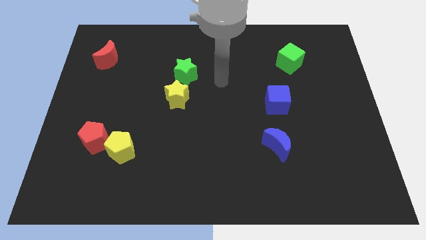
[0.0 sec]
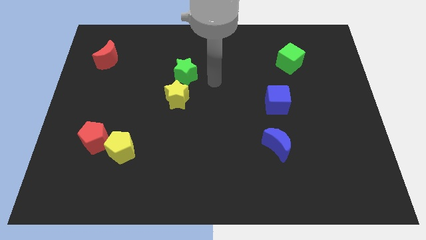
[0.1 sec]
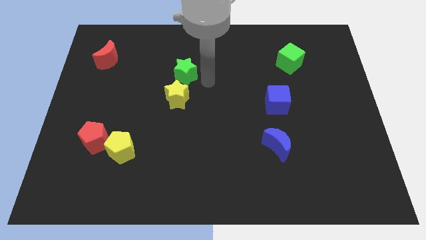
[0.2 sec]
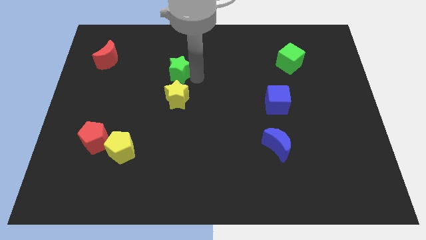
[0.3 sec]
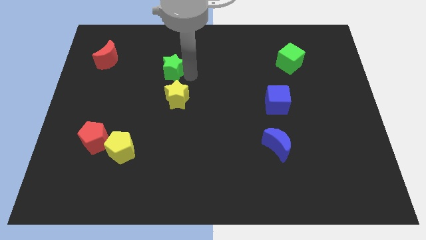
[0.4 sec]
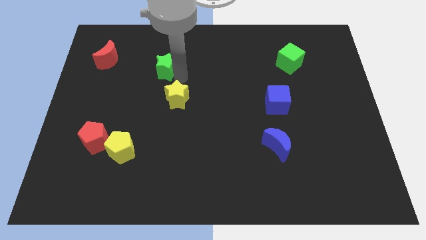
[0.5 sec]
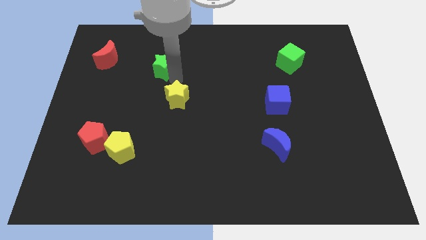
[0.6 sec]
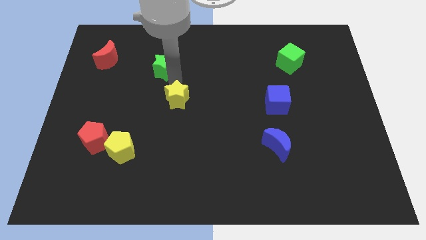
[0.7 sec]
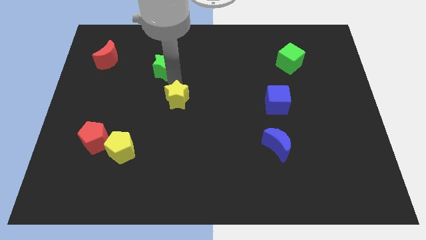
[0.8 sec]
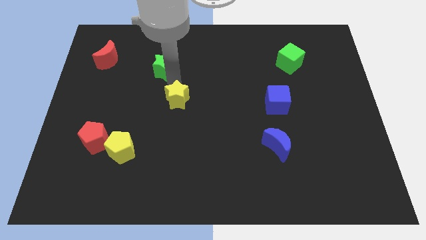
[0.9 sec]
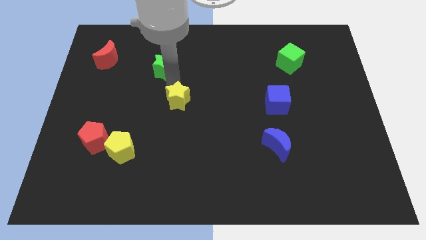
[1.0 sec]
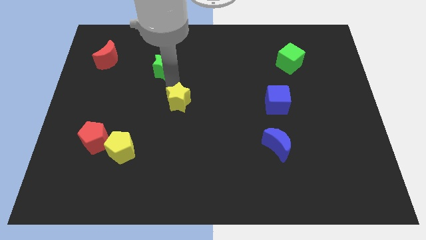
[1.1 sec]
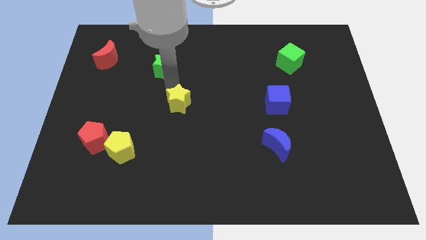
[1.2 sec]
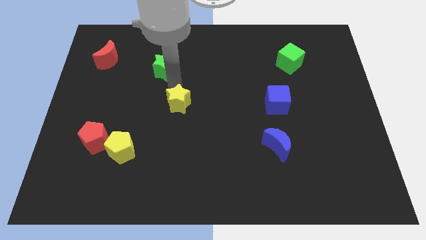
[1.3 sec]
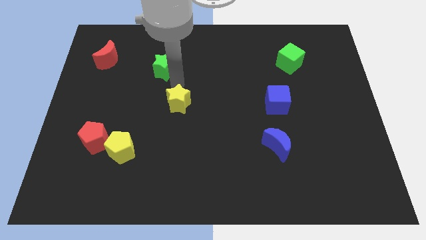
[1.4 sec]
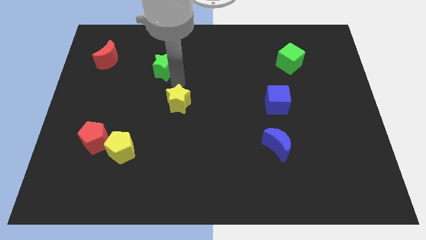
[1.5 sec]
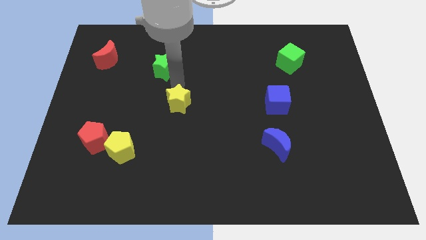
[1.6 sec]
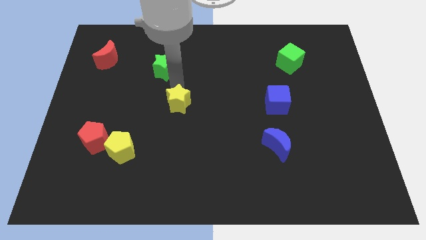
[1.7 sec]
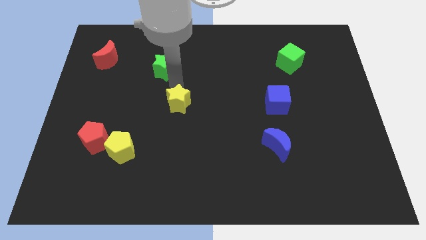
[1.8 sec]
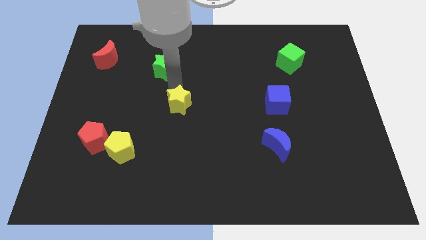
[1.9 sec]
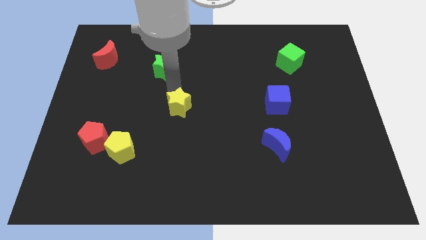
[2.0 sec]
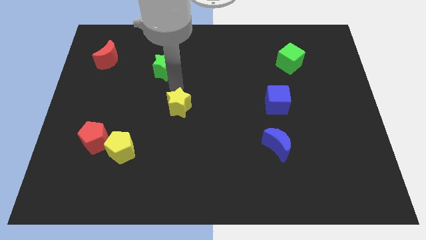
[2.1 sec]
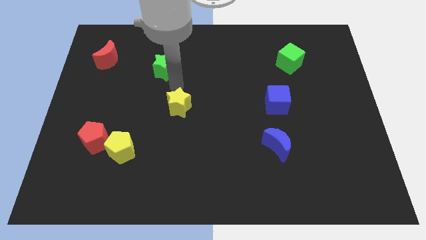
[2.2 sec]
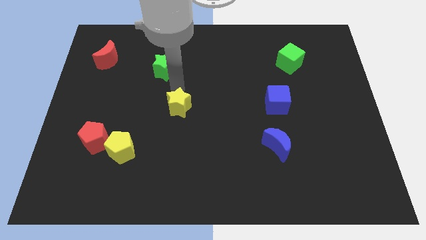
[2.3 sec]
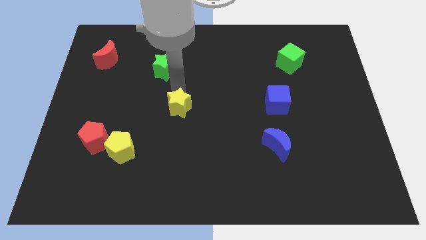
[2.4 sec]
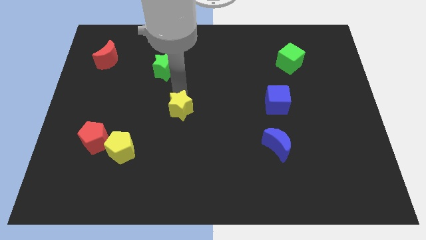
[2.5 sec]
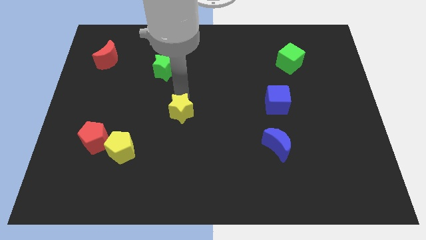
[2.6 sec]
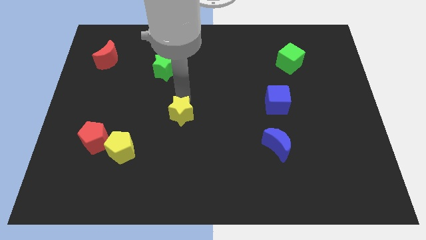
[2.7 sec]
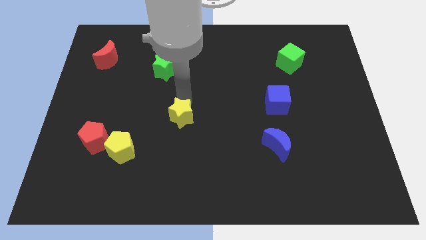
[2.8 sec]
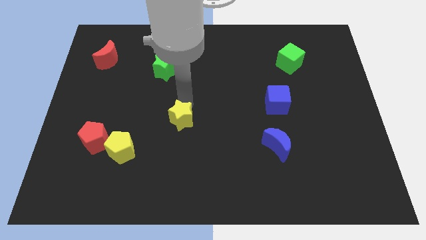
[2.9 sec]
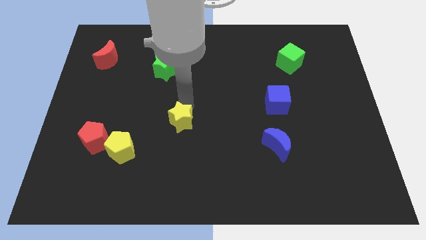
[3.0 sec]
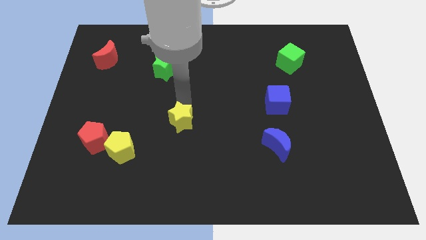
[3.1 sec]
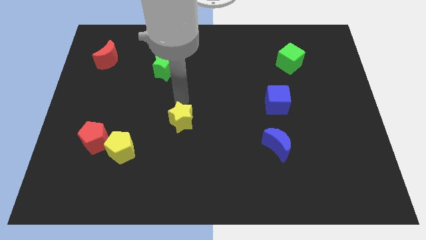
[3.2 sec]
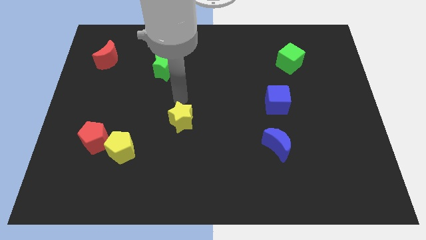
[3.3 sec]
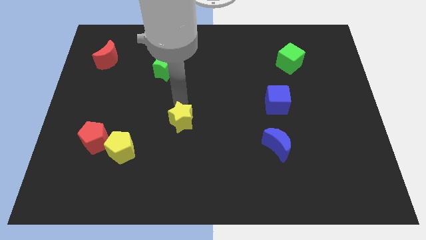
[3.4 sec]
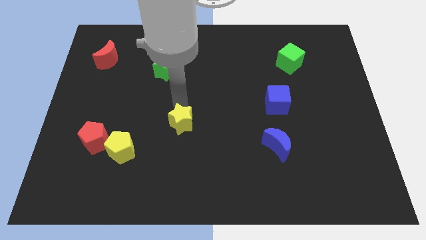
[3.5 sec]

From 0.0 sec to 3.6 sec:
slightly push the yellow star down

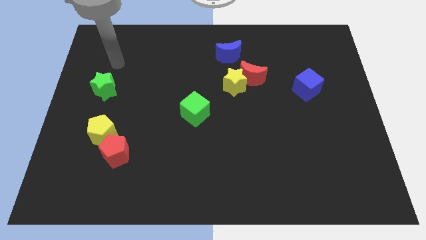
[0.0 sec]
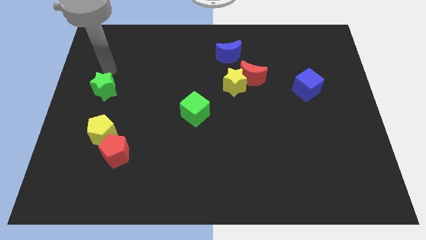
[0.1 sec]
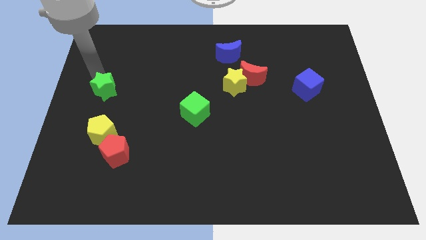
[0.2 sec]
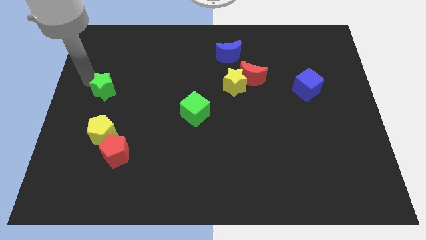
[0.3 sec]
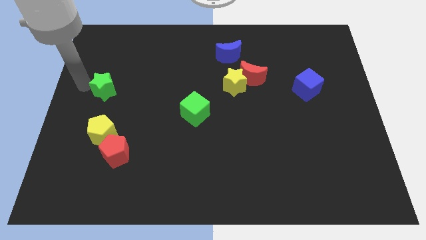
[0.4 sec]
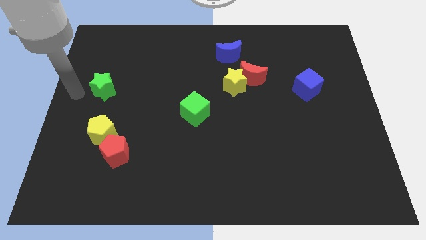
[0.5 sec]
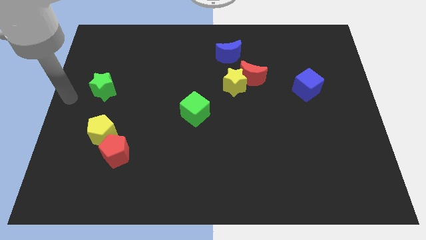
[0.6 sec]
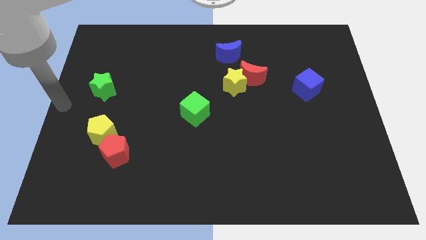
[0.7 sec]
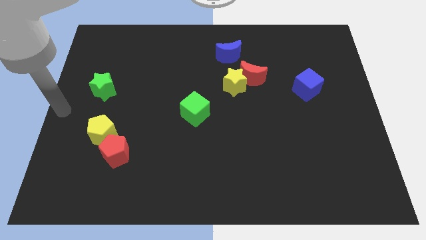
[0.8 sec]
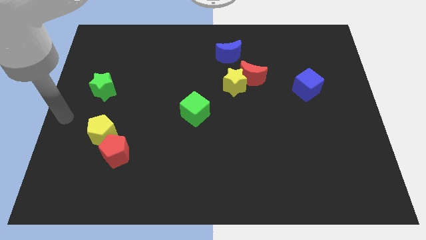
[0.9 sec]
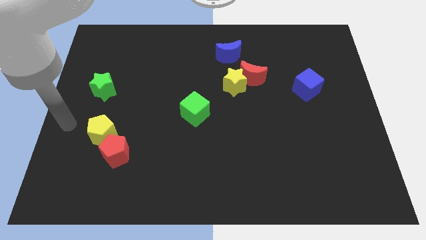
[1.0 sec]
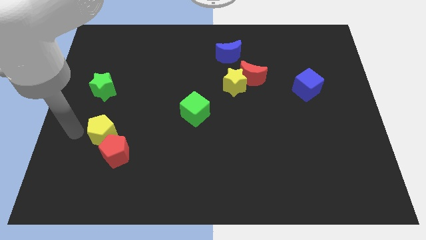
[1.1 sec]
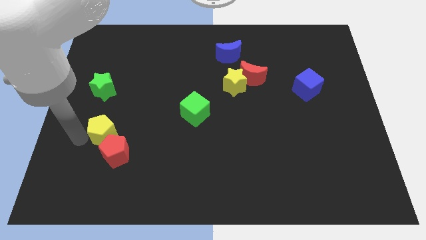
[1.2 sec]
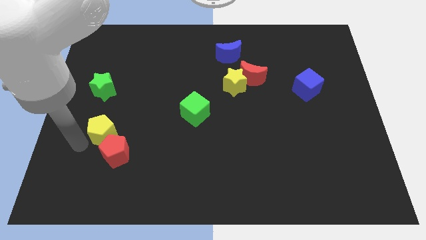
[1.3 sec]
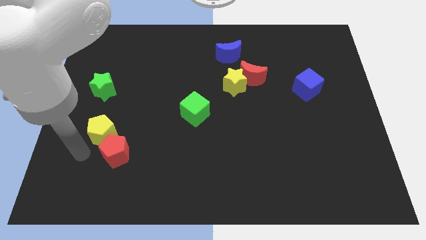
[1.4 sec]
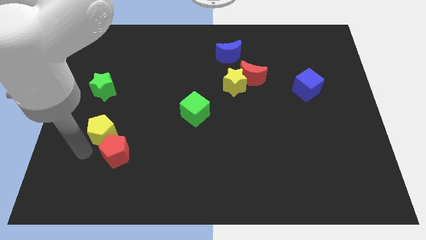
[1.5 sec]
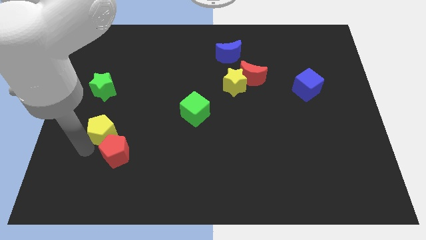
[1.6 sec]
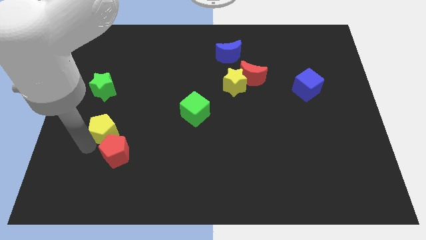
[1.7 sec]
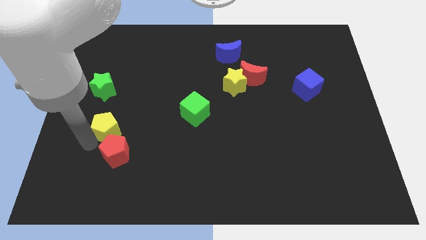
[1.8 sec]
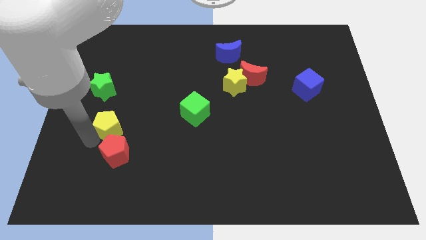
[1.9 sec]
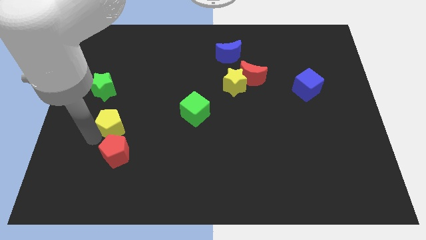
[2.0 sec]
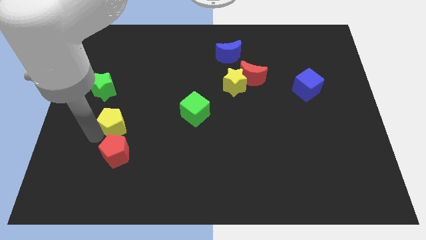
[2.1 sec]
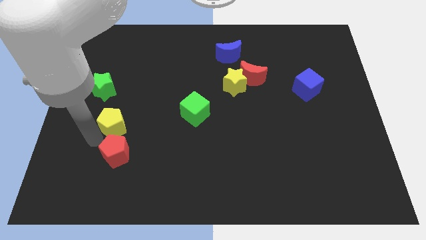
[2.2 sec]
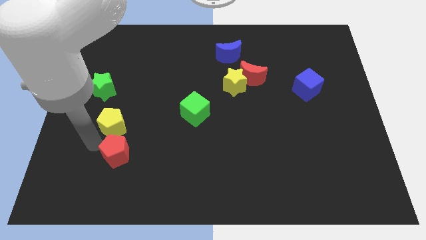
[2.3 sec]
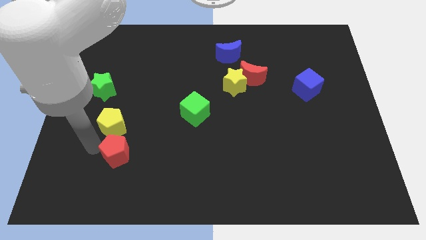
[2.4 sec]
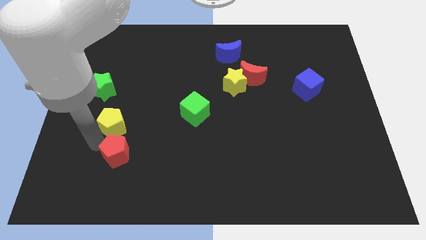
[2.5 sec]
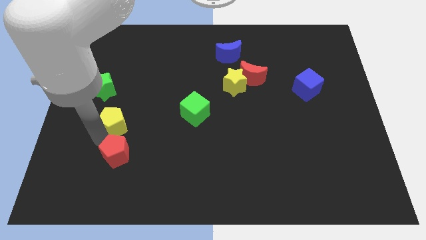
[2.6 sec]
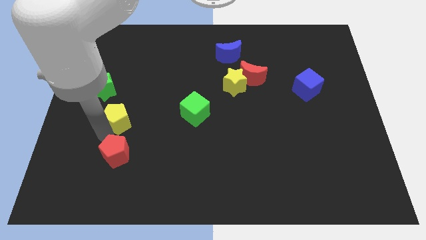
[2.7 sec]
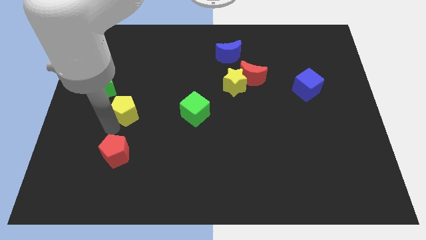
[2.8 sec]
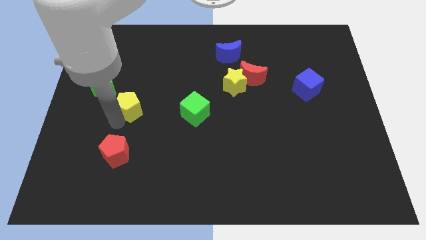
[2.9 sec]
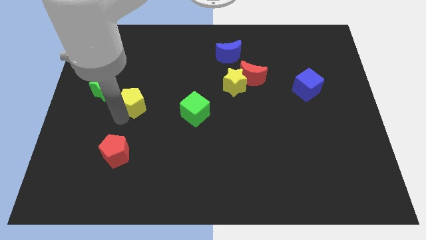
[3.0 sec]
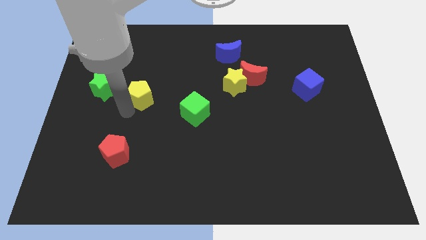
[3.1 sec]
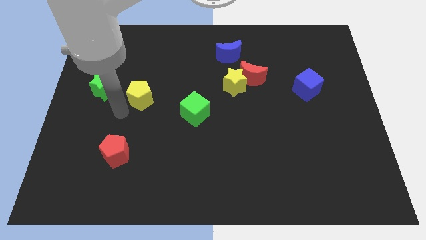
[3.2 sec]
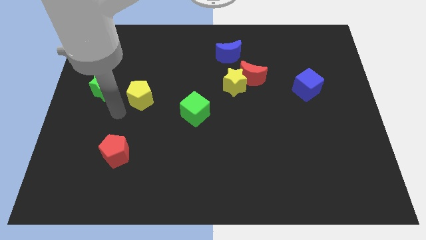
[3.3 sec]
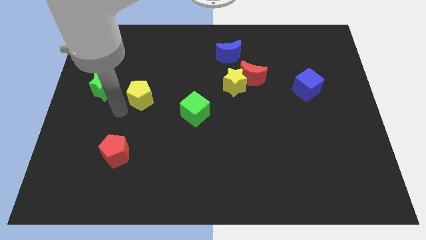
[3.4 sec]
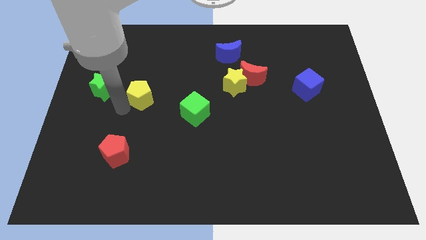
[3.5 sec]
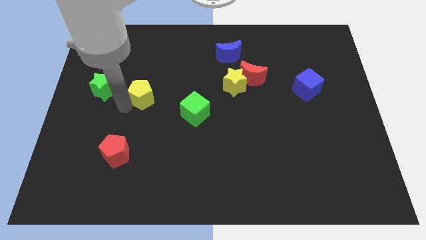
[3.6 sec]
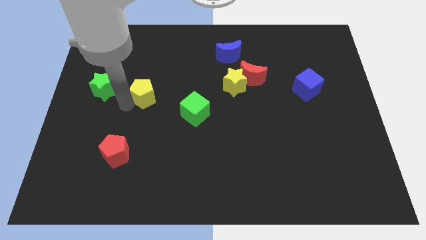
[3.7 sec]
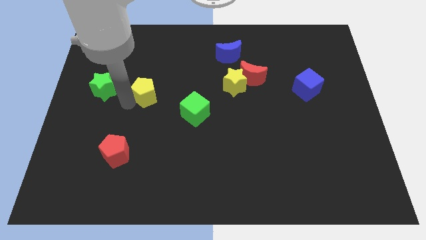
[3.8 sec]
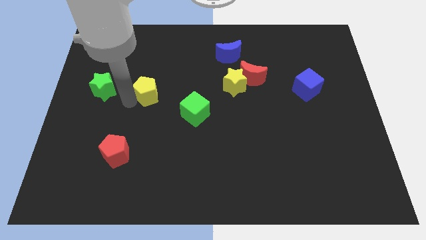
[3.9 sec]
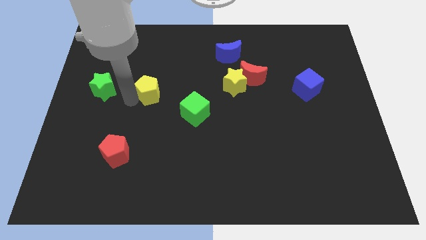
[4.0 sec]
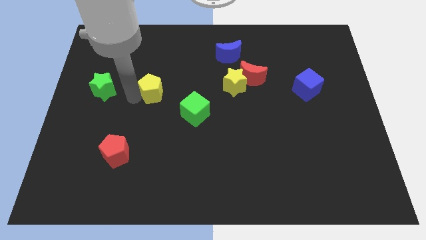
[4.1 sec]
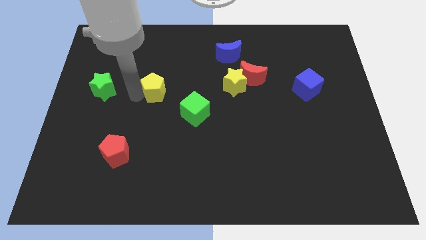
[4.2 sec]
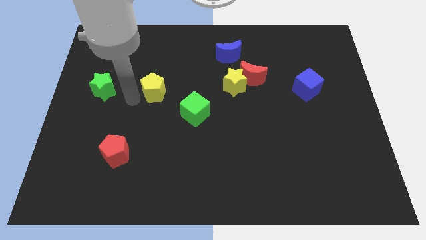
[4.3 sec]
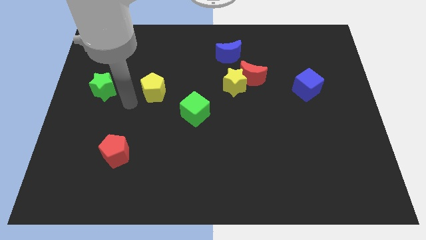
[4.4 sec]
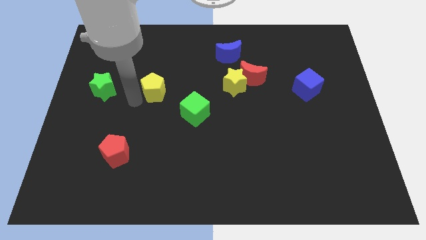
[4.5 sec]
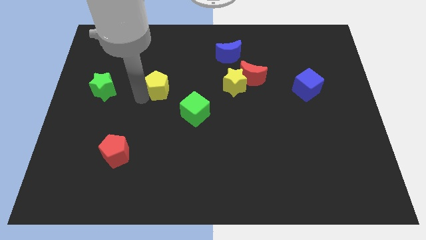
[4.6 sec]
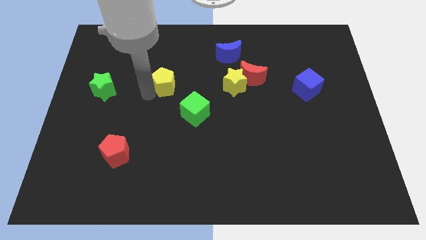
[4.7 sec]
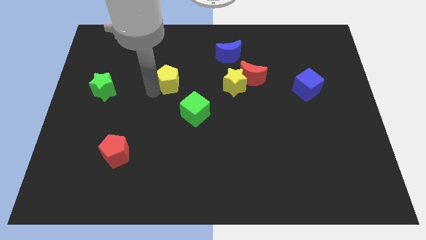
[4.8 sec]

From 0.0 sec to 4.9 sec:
slide the yellow pentagon up and then right
